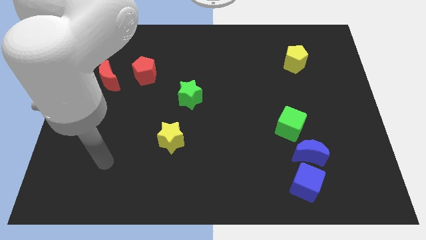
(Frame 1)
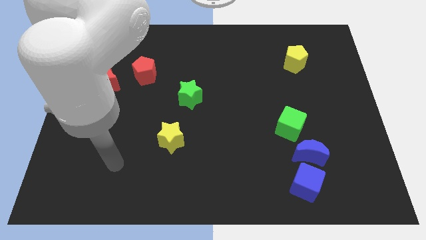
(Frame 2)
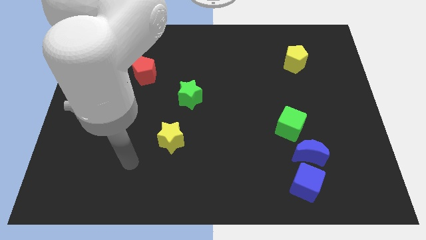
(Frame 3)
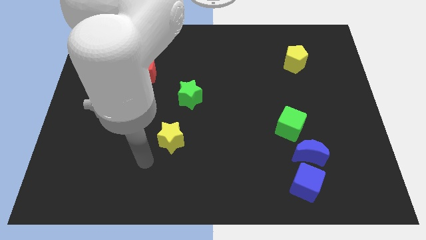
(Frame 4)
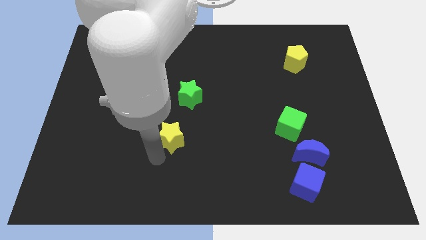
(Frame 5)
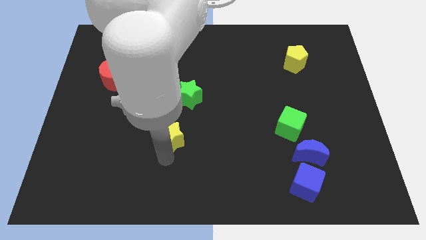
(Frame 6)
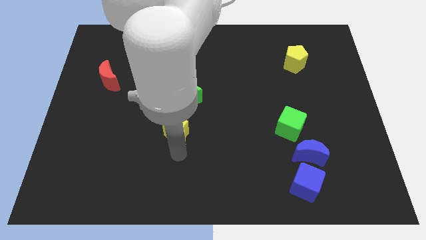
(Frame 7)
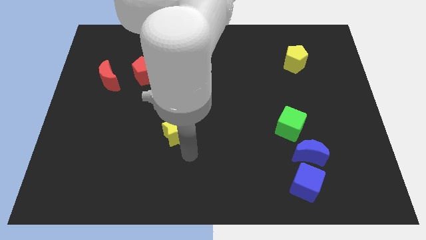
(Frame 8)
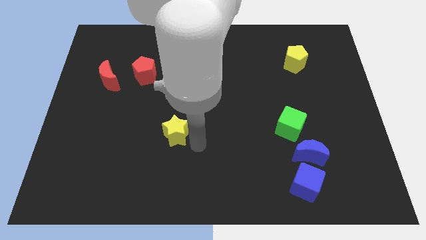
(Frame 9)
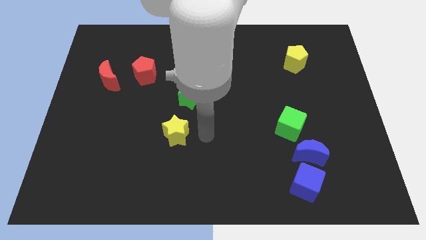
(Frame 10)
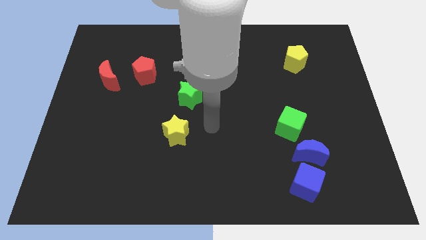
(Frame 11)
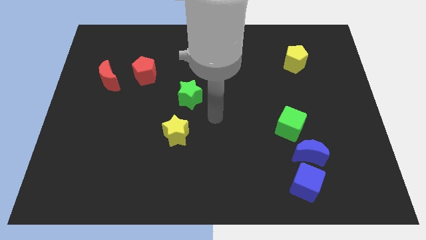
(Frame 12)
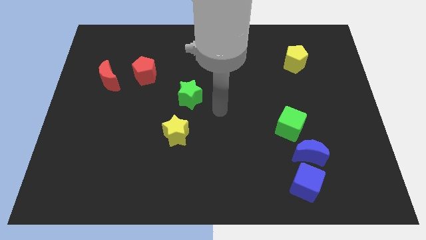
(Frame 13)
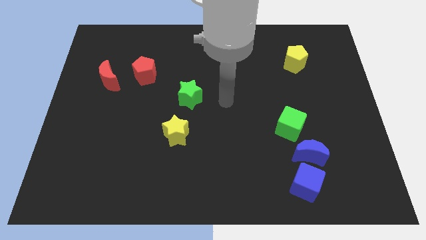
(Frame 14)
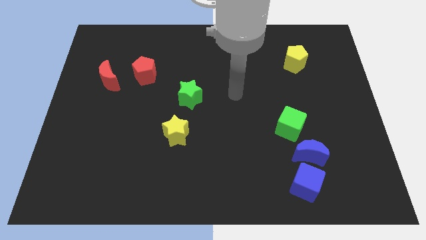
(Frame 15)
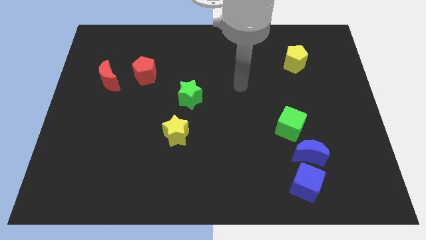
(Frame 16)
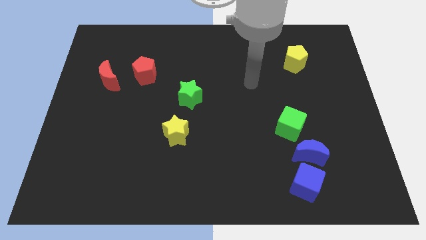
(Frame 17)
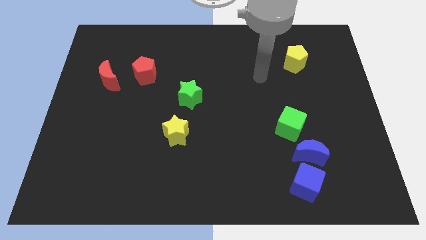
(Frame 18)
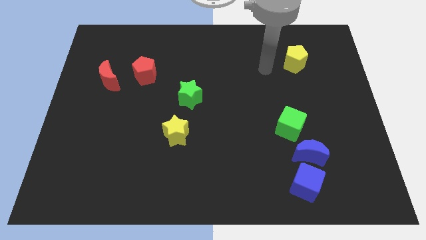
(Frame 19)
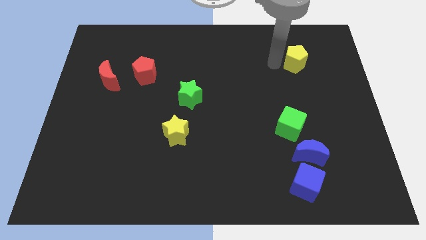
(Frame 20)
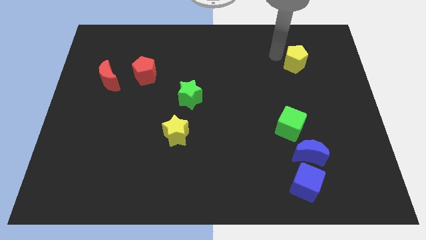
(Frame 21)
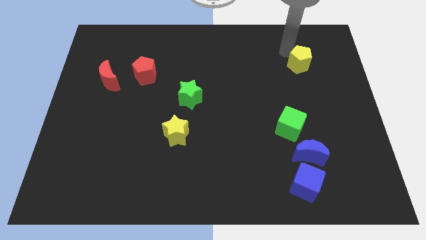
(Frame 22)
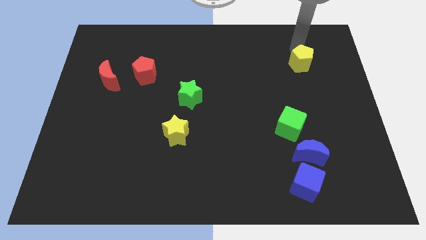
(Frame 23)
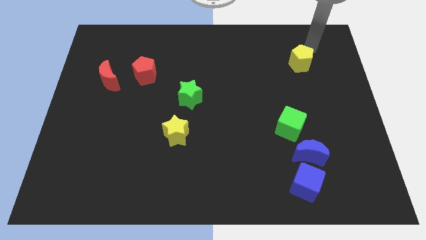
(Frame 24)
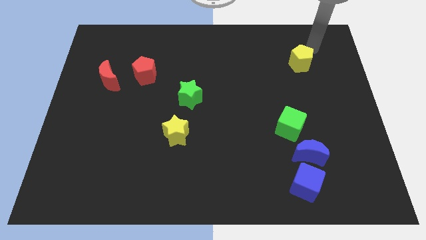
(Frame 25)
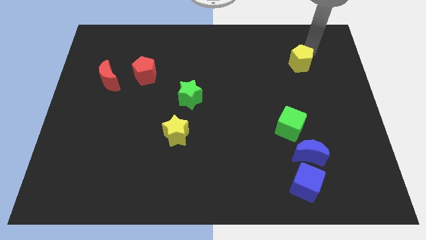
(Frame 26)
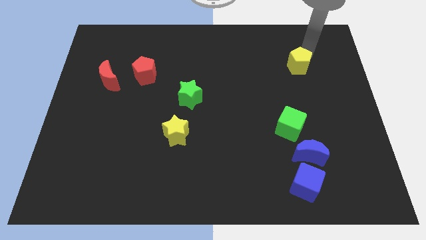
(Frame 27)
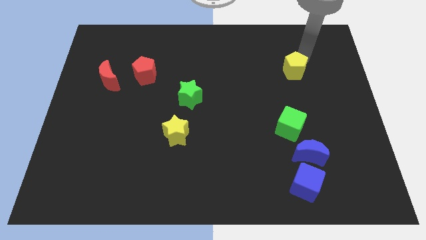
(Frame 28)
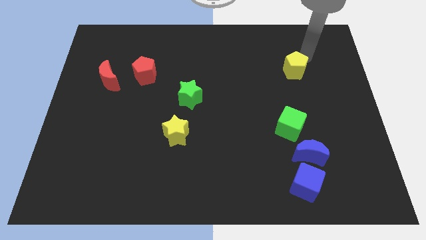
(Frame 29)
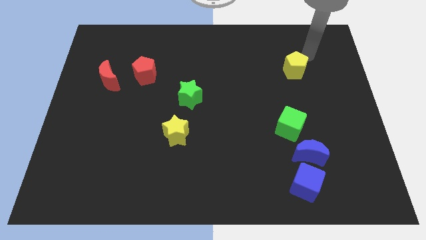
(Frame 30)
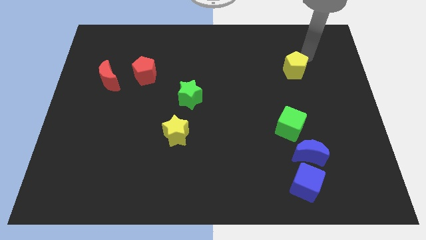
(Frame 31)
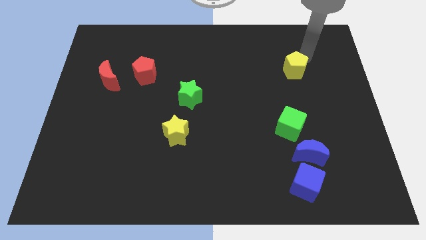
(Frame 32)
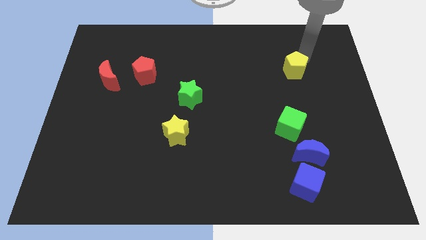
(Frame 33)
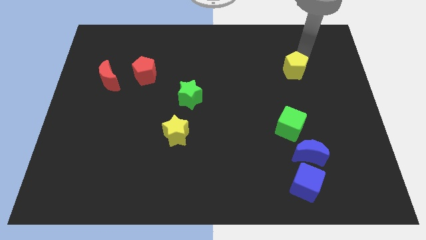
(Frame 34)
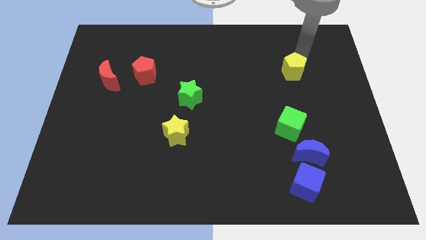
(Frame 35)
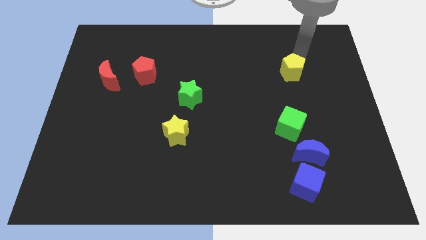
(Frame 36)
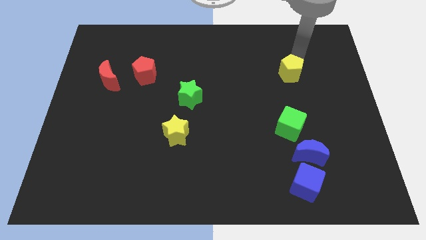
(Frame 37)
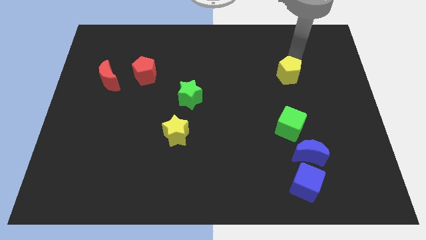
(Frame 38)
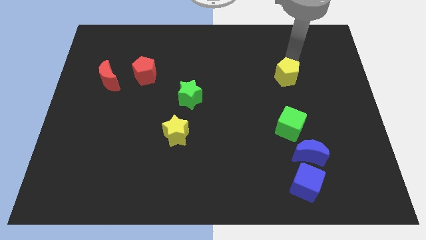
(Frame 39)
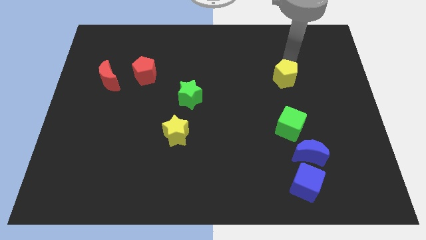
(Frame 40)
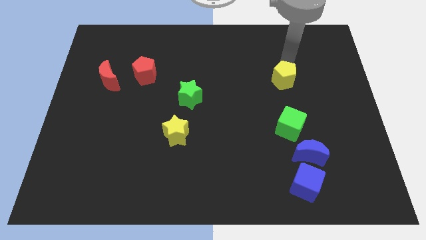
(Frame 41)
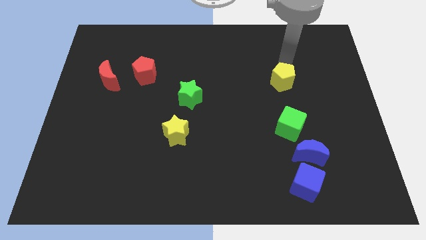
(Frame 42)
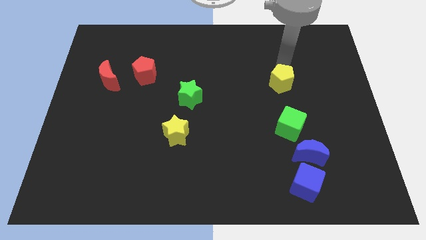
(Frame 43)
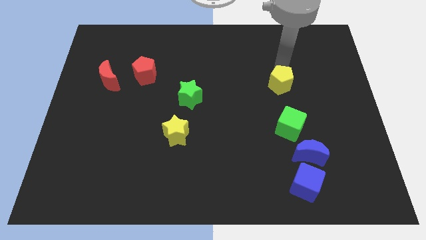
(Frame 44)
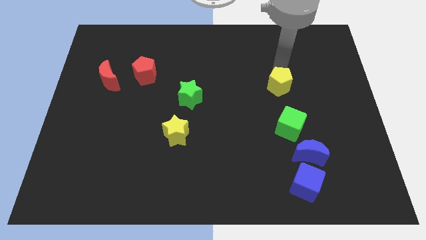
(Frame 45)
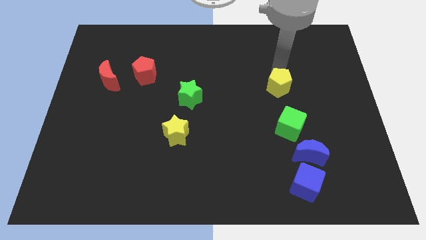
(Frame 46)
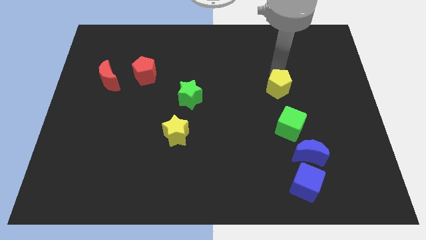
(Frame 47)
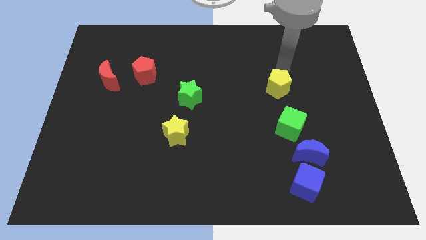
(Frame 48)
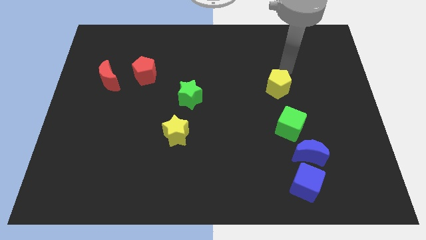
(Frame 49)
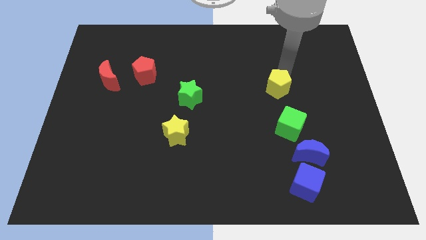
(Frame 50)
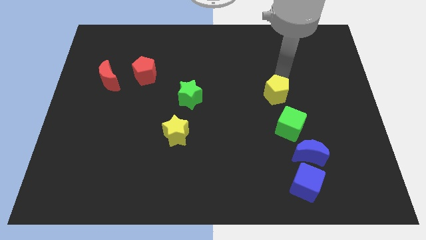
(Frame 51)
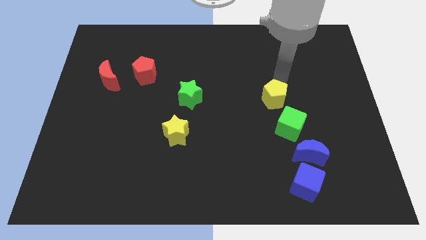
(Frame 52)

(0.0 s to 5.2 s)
push the yellow pentagon to the top left side of the green cube

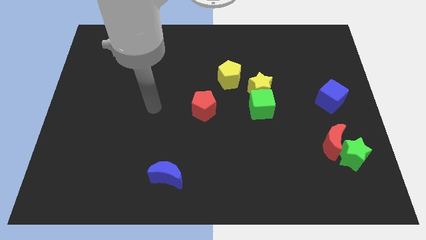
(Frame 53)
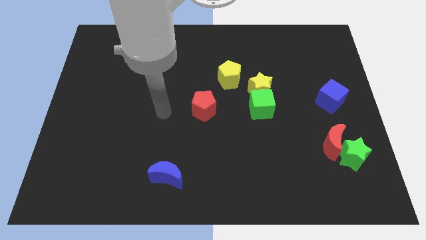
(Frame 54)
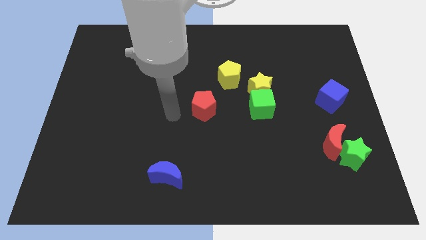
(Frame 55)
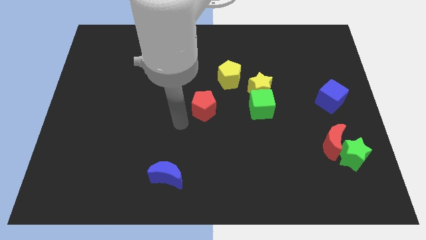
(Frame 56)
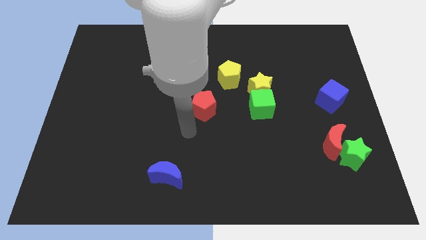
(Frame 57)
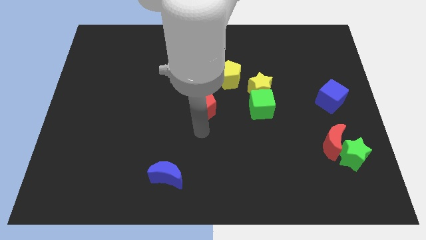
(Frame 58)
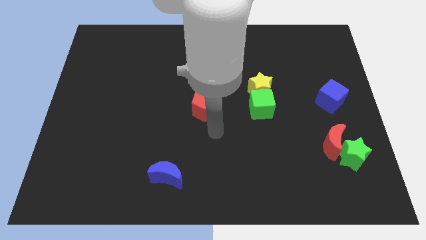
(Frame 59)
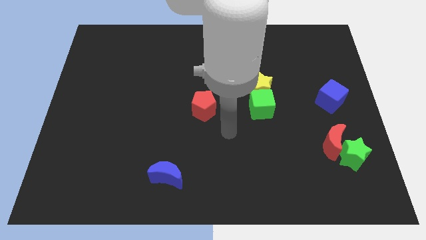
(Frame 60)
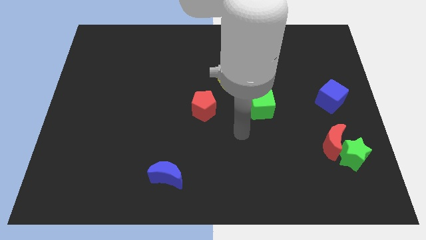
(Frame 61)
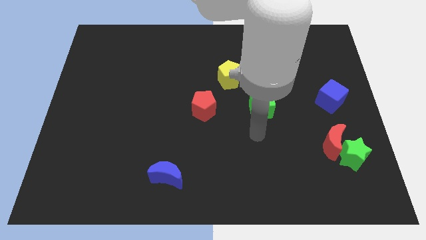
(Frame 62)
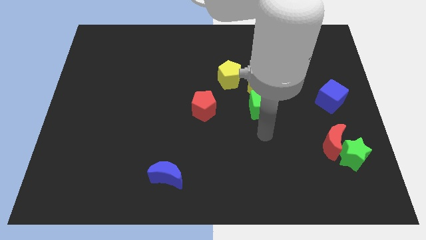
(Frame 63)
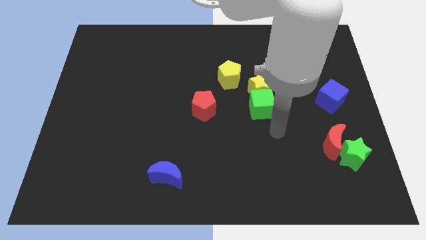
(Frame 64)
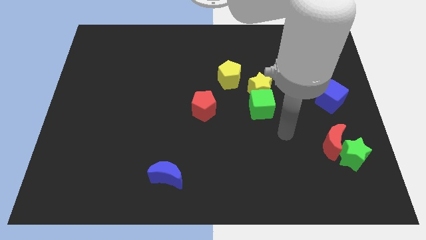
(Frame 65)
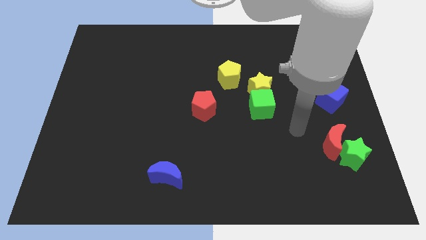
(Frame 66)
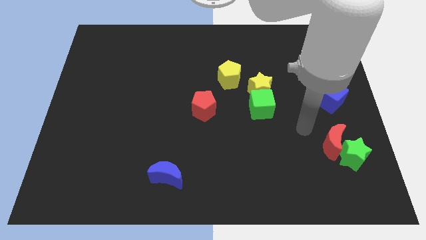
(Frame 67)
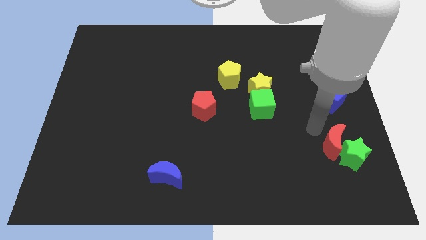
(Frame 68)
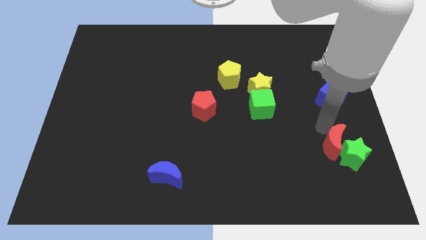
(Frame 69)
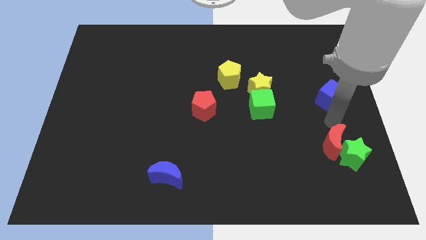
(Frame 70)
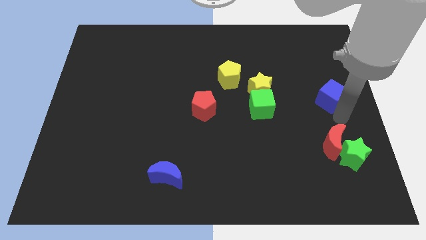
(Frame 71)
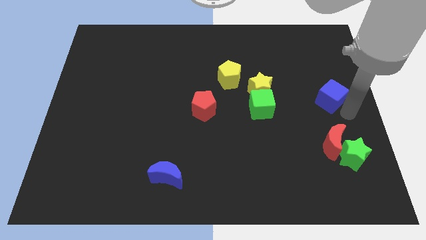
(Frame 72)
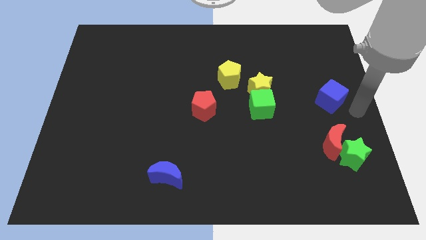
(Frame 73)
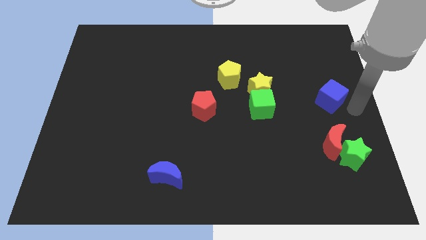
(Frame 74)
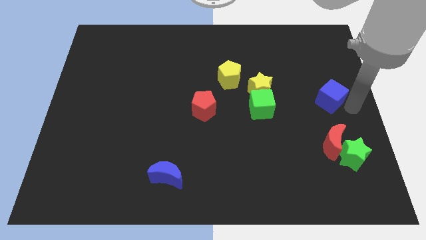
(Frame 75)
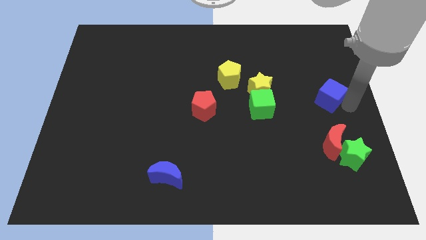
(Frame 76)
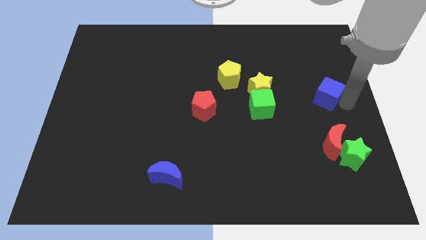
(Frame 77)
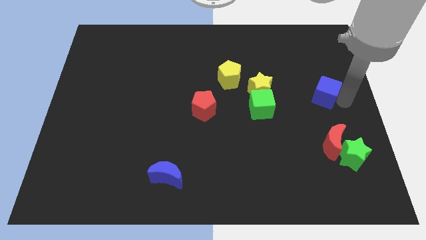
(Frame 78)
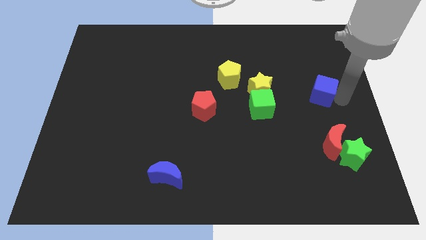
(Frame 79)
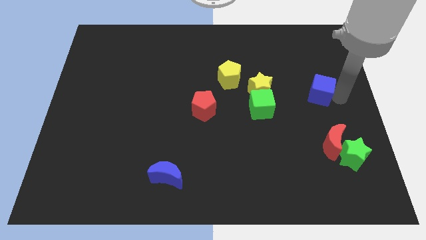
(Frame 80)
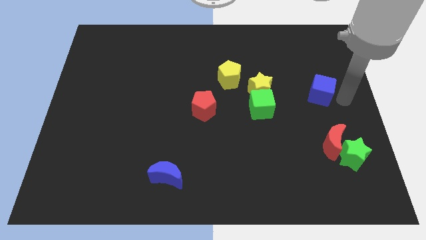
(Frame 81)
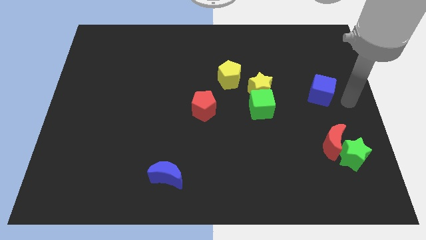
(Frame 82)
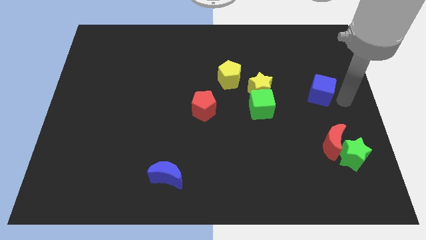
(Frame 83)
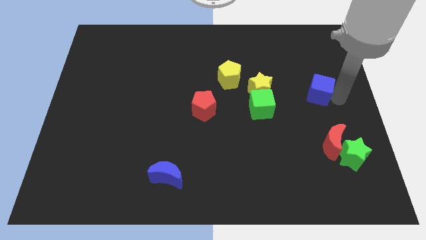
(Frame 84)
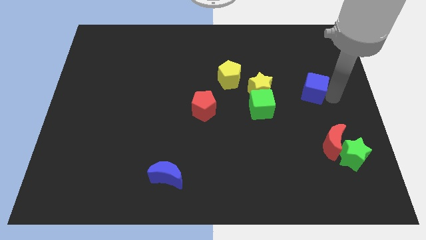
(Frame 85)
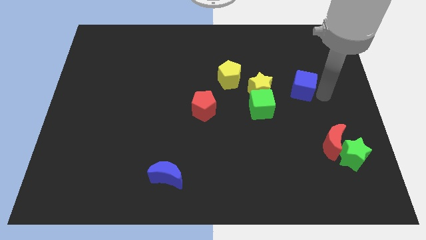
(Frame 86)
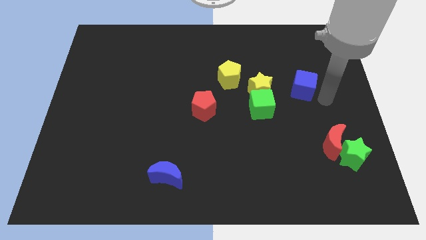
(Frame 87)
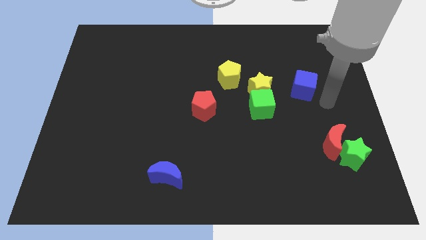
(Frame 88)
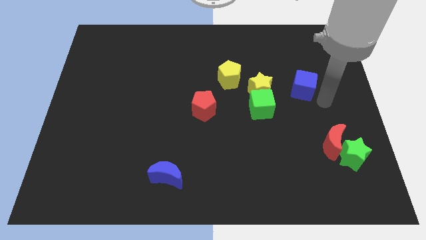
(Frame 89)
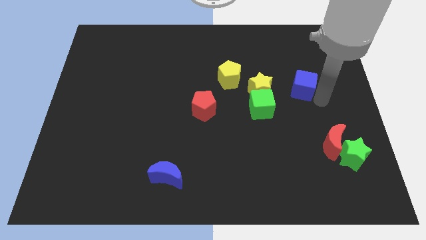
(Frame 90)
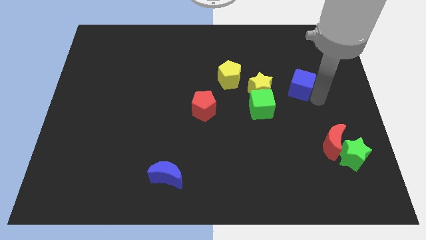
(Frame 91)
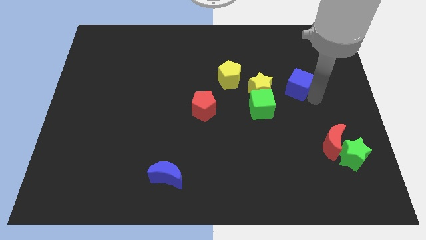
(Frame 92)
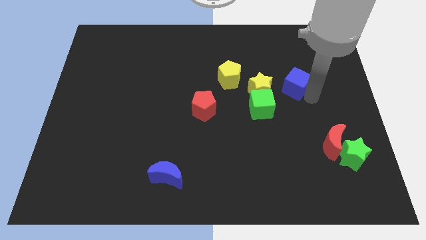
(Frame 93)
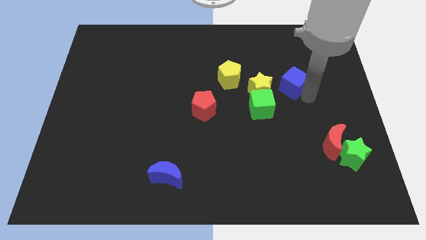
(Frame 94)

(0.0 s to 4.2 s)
push the blue cube diagonally up and to the right of the yellow star
